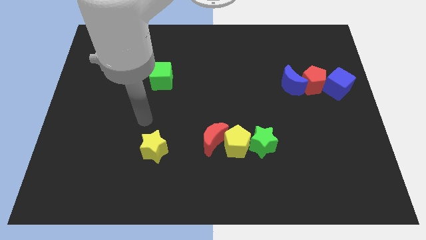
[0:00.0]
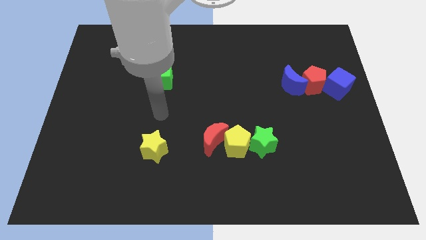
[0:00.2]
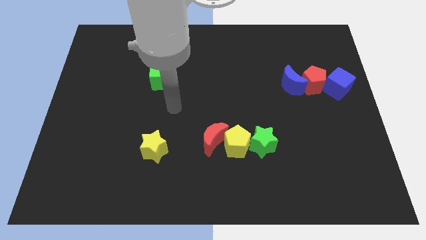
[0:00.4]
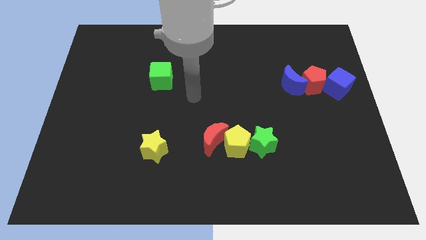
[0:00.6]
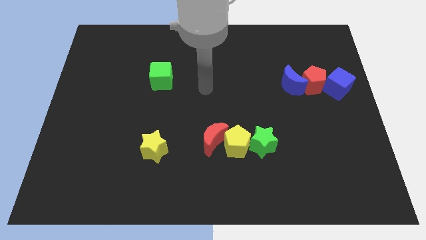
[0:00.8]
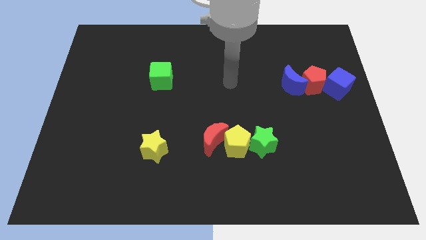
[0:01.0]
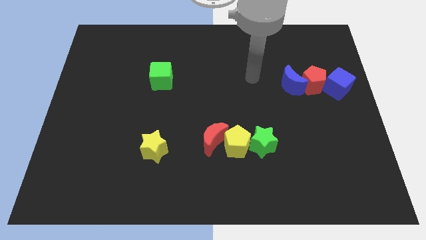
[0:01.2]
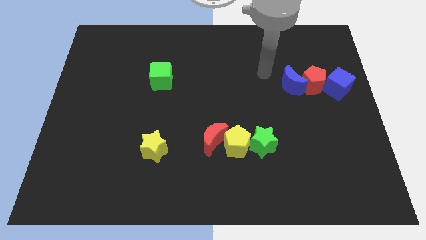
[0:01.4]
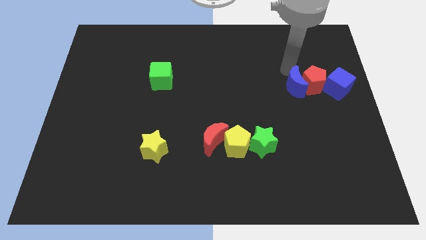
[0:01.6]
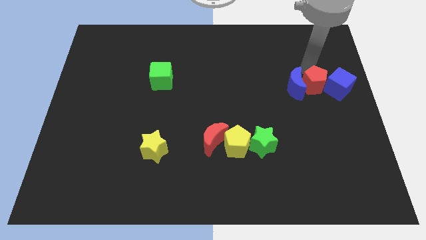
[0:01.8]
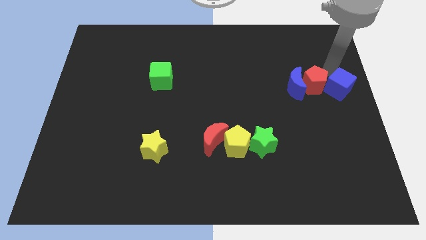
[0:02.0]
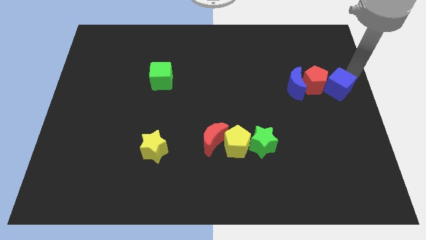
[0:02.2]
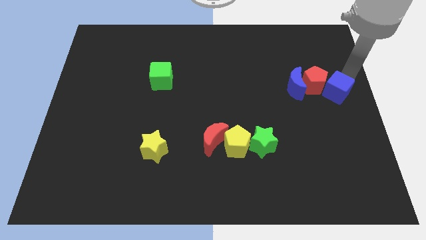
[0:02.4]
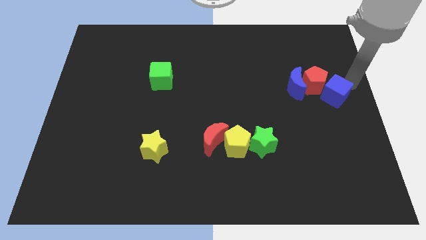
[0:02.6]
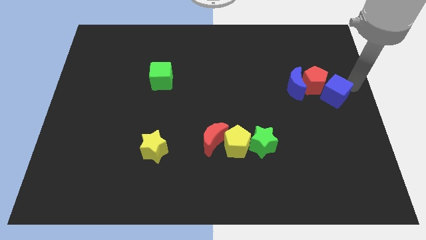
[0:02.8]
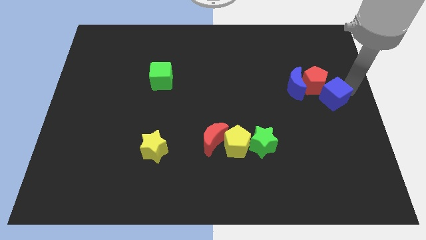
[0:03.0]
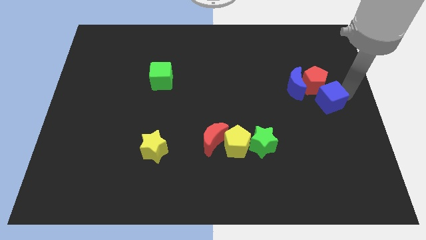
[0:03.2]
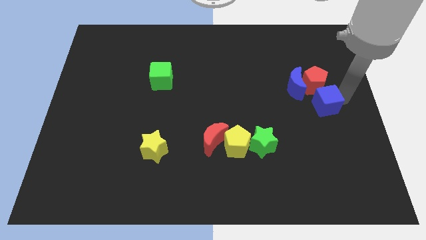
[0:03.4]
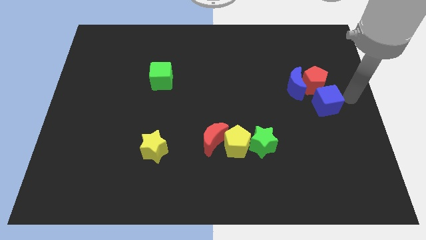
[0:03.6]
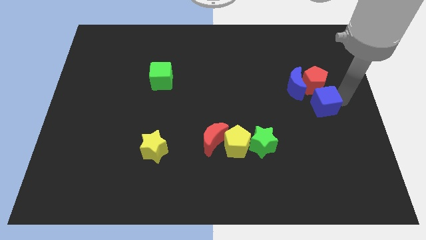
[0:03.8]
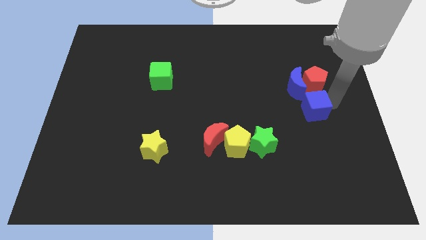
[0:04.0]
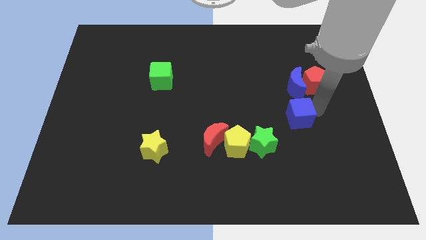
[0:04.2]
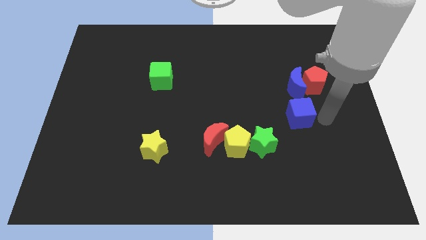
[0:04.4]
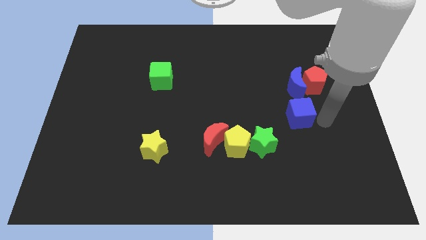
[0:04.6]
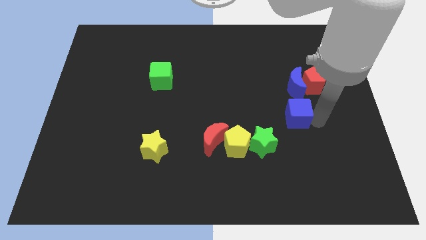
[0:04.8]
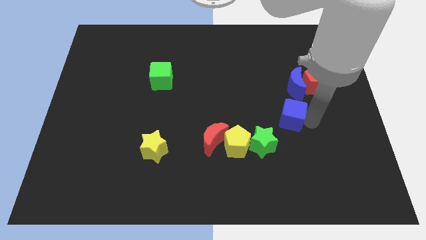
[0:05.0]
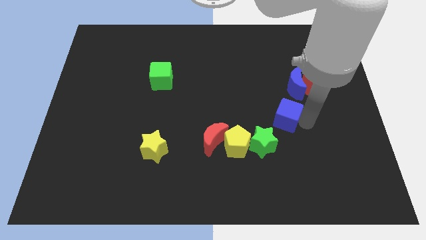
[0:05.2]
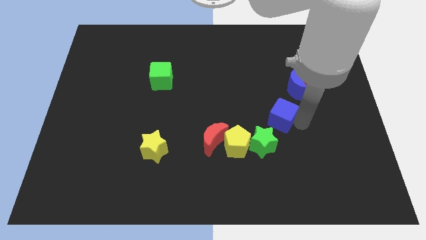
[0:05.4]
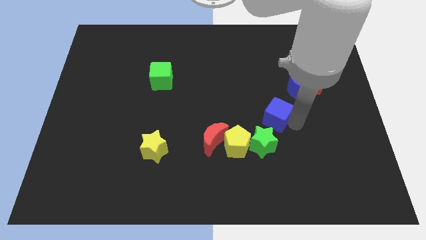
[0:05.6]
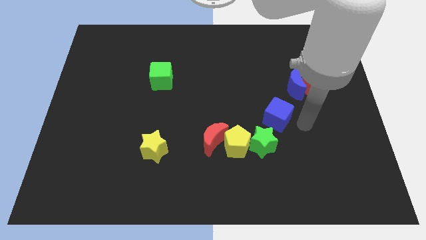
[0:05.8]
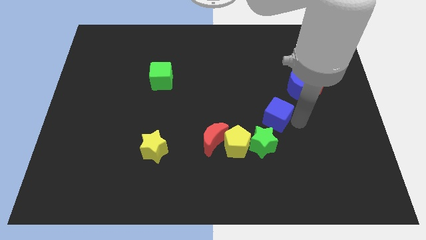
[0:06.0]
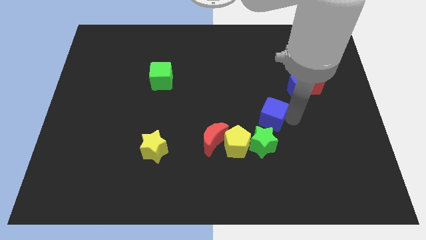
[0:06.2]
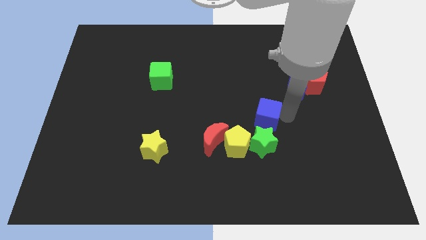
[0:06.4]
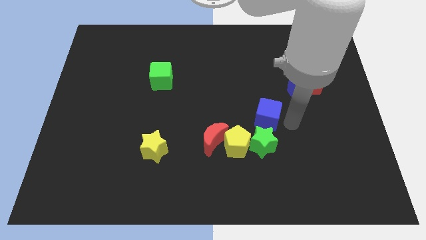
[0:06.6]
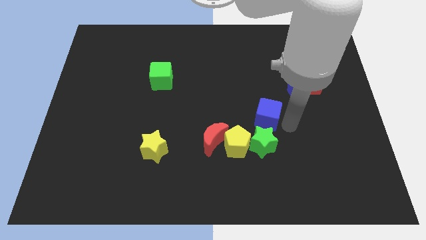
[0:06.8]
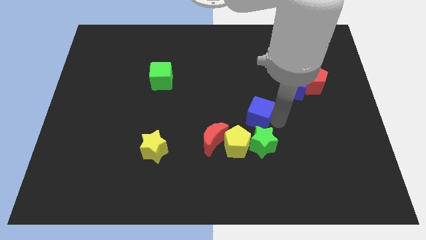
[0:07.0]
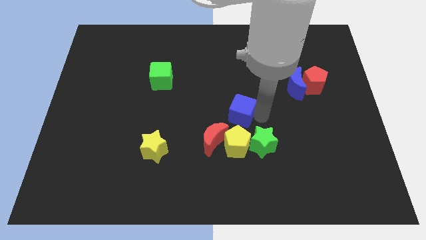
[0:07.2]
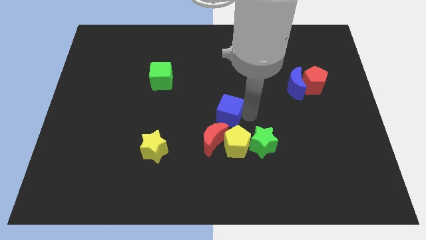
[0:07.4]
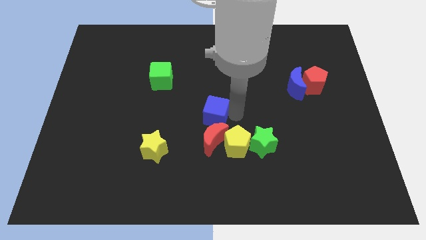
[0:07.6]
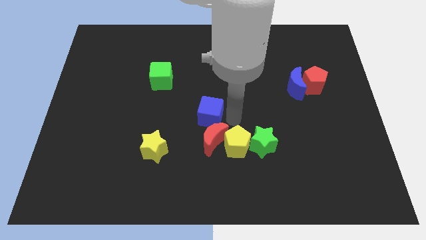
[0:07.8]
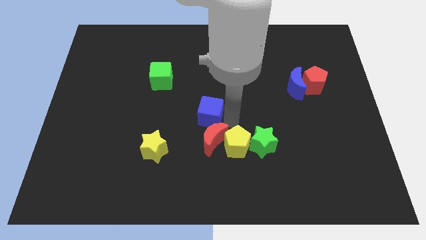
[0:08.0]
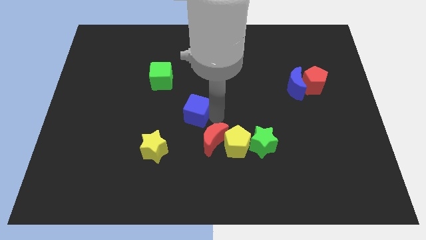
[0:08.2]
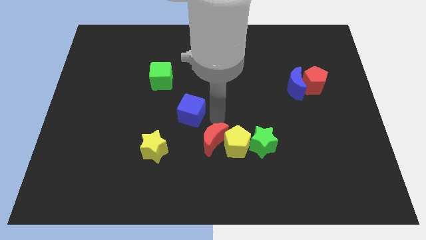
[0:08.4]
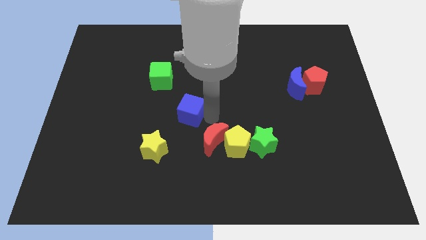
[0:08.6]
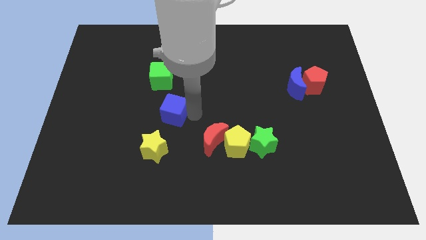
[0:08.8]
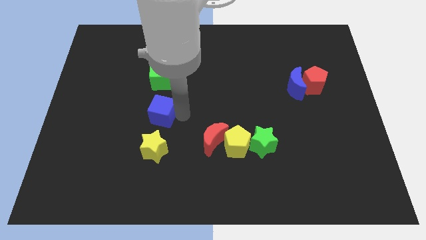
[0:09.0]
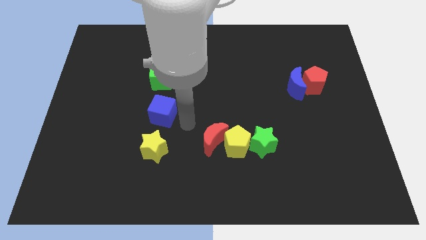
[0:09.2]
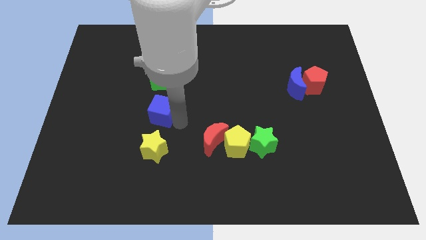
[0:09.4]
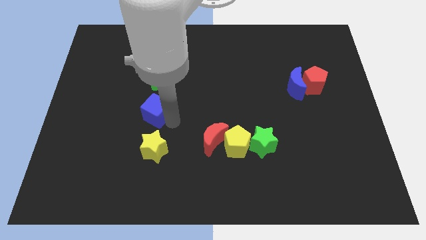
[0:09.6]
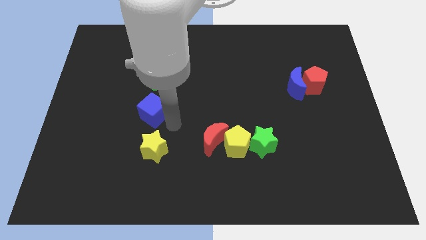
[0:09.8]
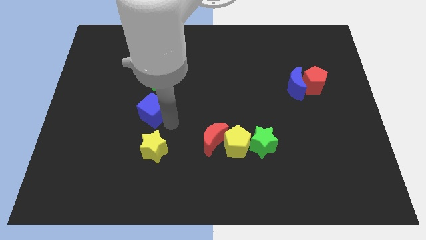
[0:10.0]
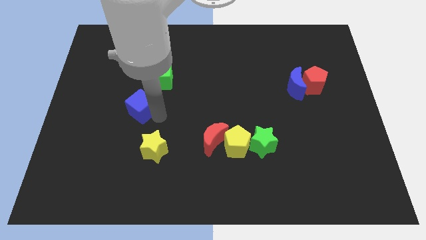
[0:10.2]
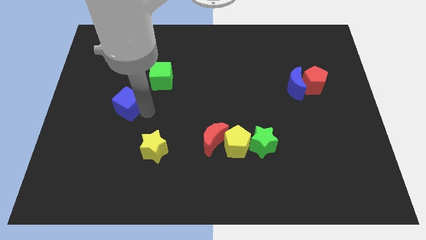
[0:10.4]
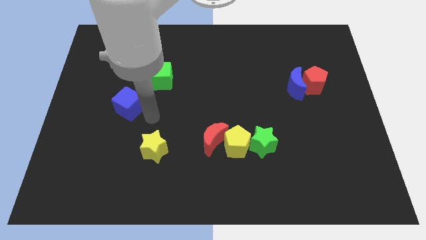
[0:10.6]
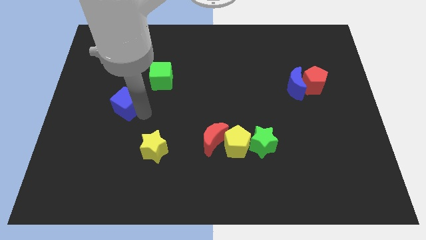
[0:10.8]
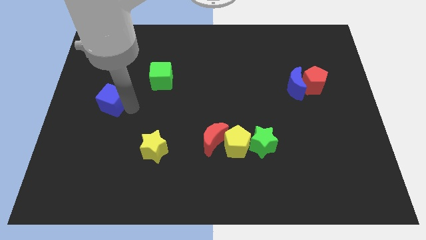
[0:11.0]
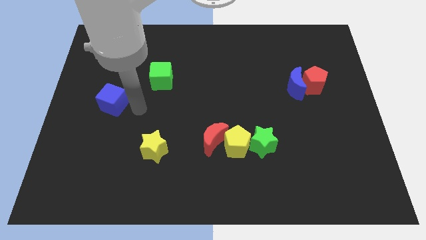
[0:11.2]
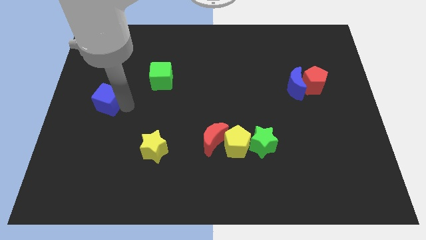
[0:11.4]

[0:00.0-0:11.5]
move the blue cube to the left side

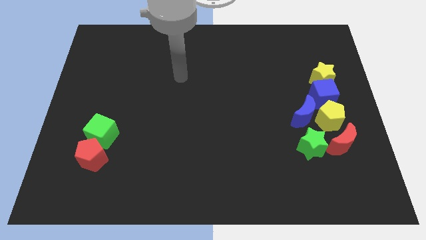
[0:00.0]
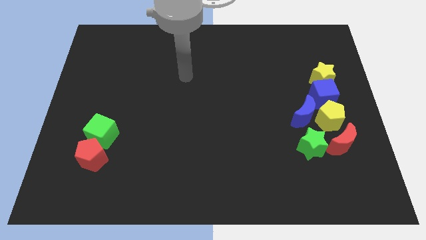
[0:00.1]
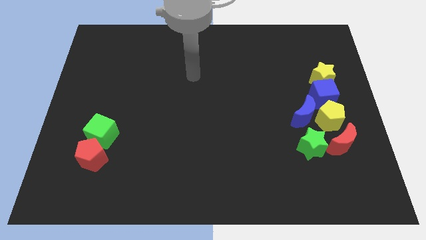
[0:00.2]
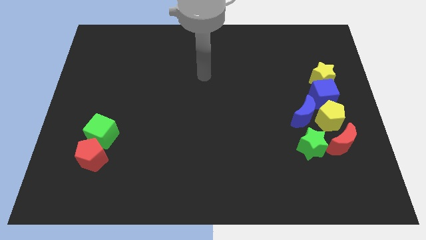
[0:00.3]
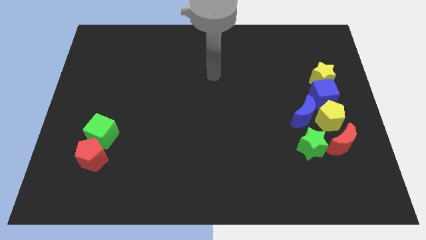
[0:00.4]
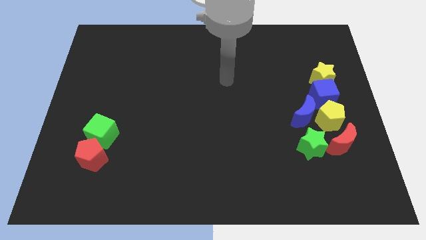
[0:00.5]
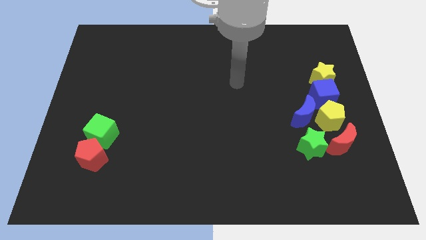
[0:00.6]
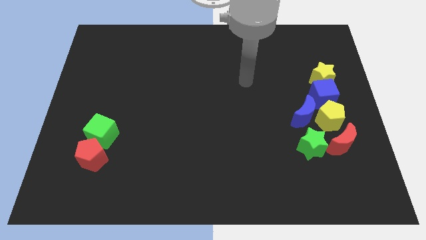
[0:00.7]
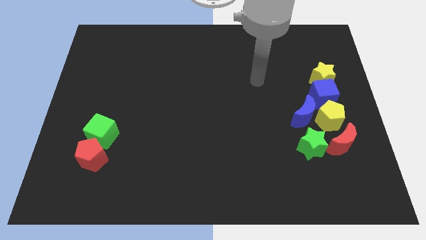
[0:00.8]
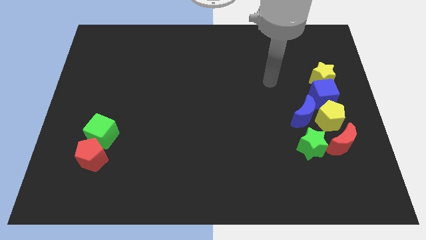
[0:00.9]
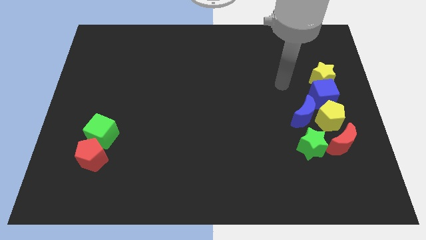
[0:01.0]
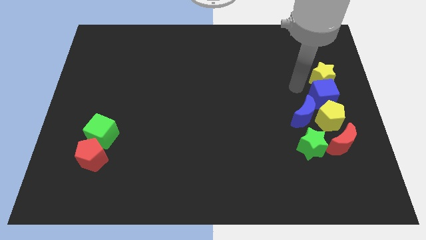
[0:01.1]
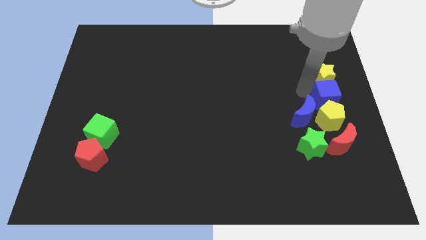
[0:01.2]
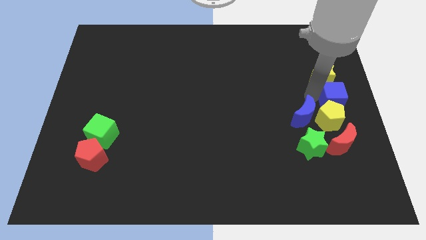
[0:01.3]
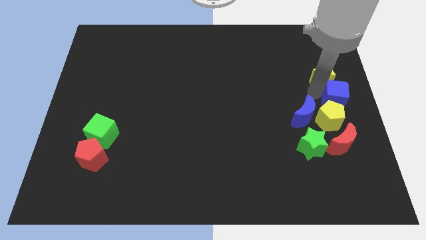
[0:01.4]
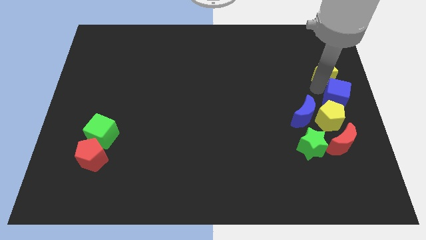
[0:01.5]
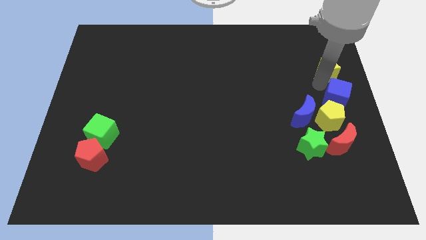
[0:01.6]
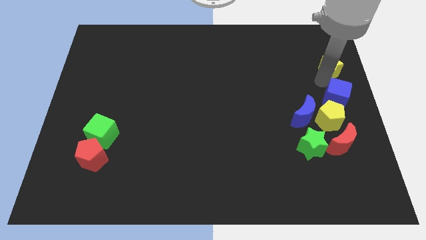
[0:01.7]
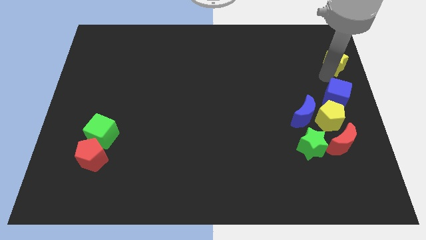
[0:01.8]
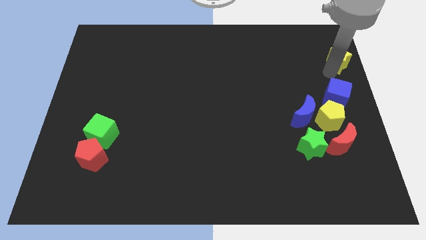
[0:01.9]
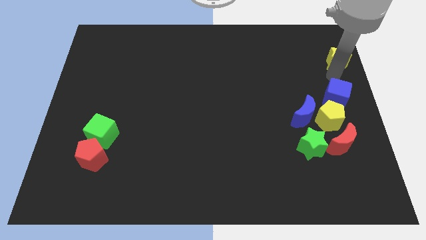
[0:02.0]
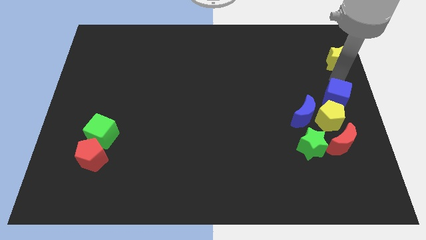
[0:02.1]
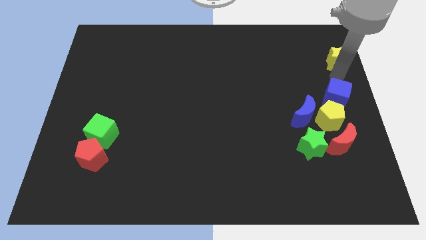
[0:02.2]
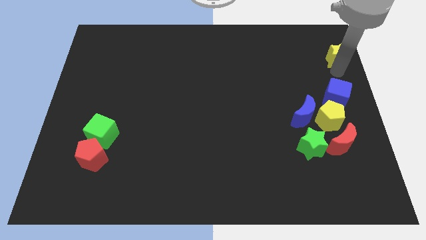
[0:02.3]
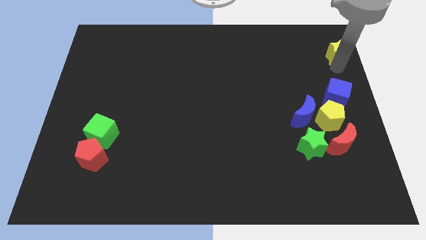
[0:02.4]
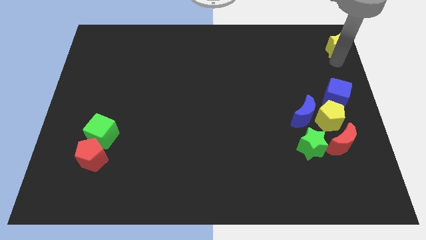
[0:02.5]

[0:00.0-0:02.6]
put the yellow star to the top right corner
